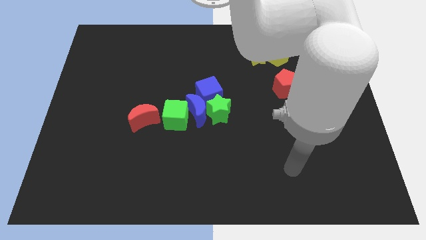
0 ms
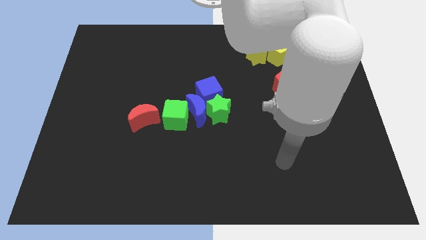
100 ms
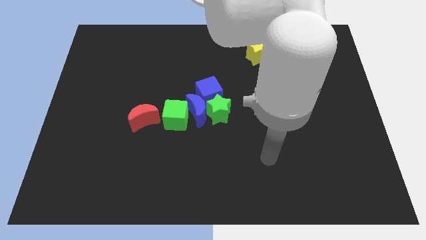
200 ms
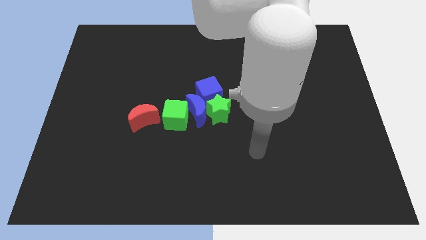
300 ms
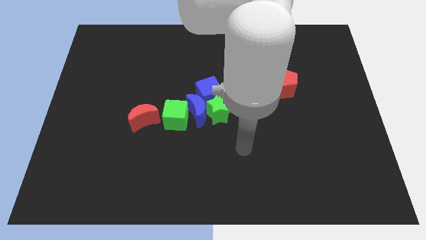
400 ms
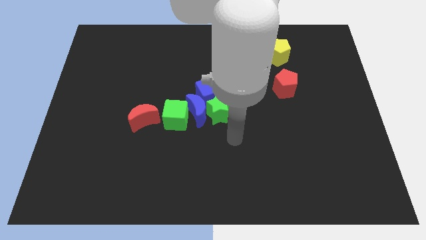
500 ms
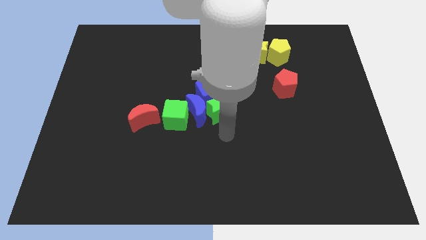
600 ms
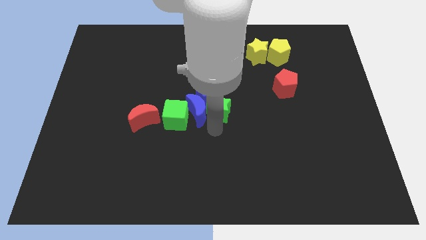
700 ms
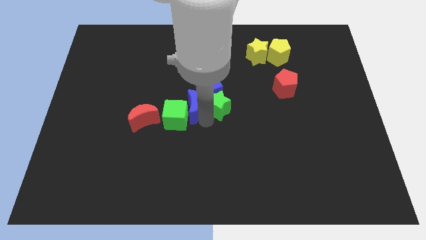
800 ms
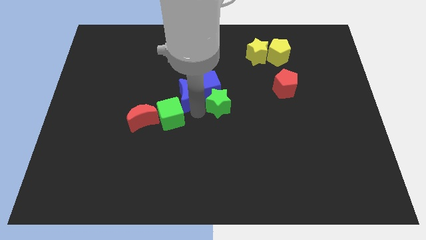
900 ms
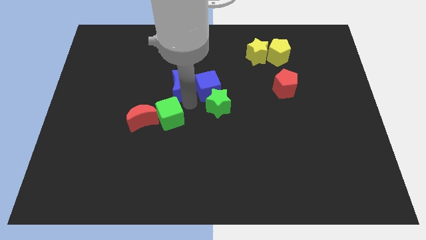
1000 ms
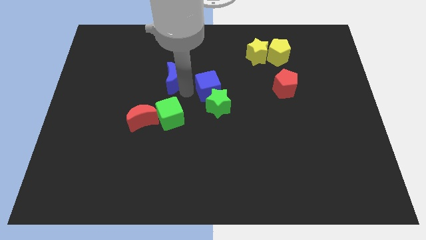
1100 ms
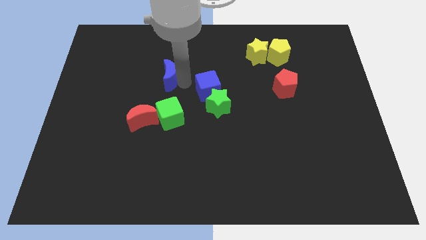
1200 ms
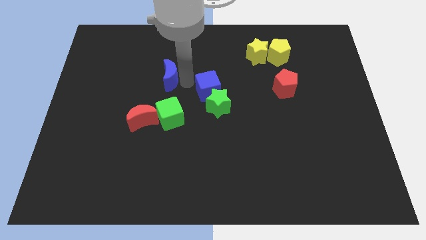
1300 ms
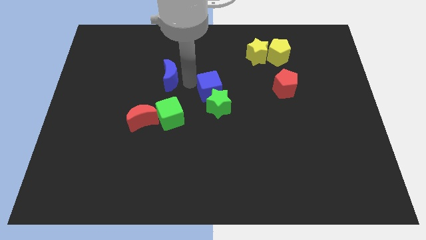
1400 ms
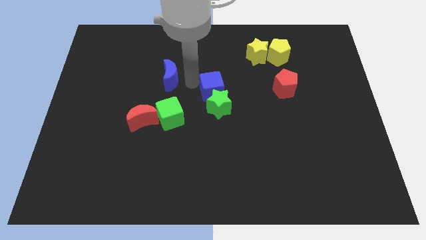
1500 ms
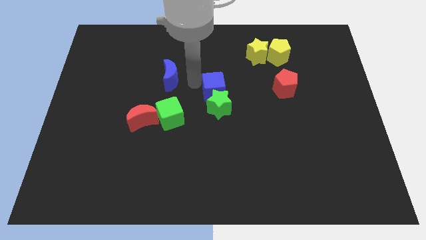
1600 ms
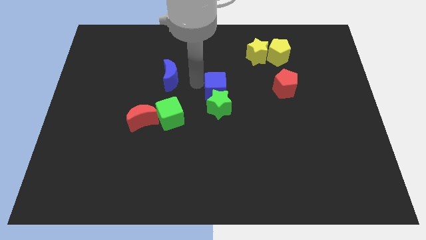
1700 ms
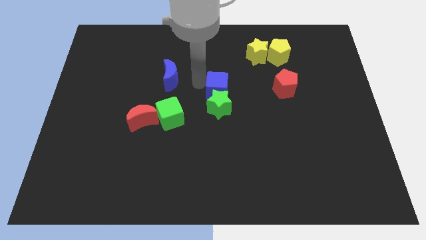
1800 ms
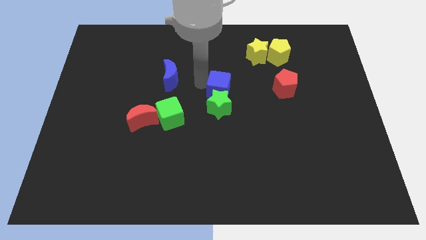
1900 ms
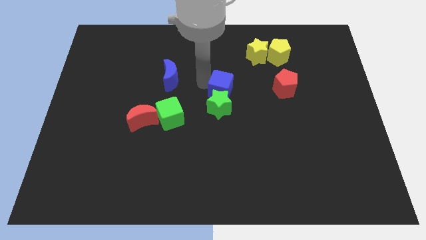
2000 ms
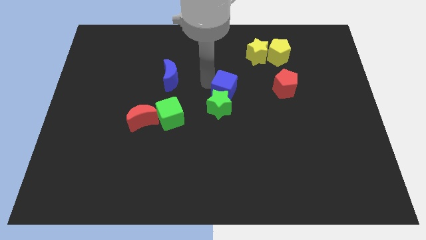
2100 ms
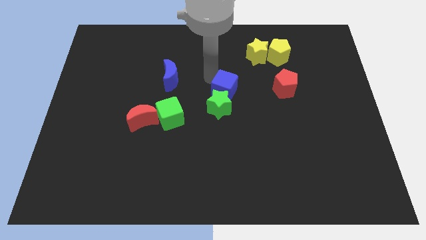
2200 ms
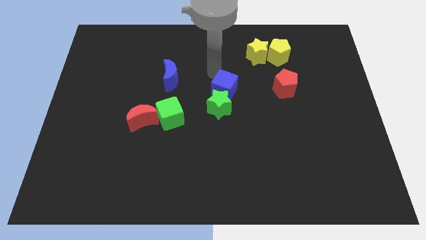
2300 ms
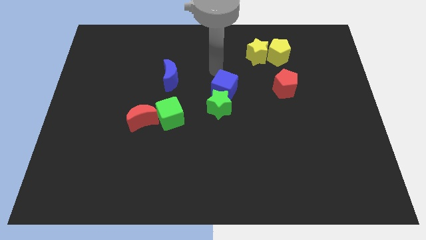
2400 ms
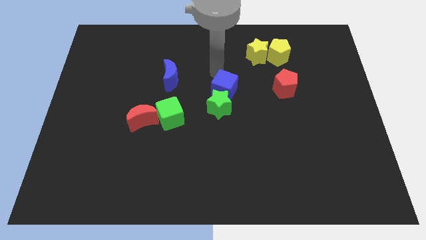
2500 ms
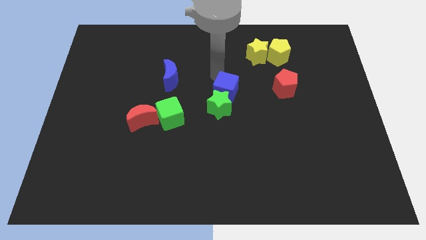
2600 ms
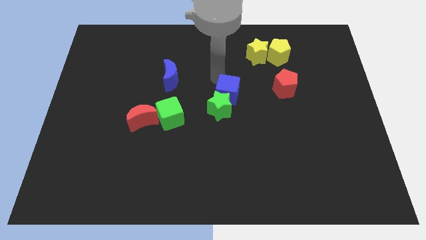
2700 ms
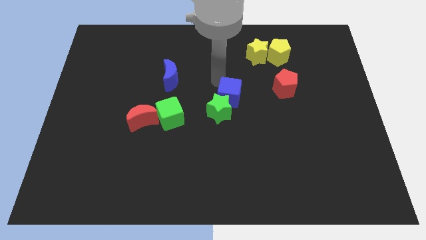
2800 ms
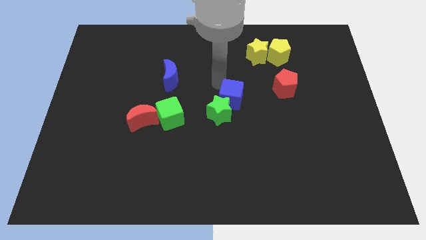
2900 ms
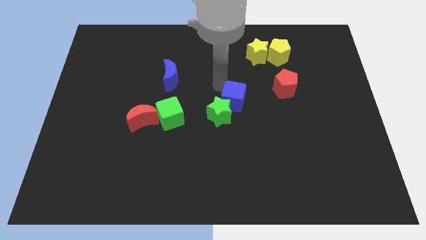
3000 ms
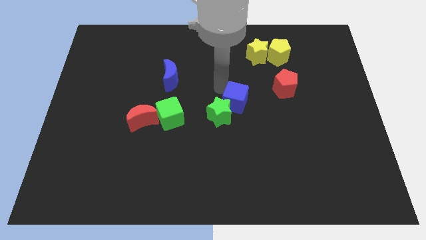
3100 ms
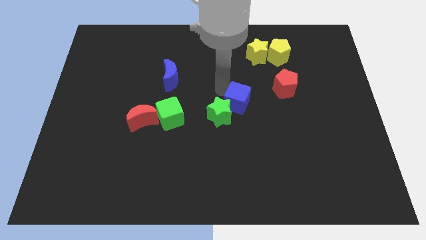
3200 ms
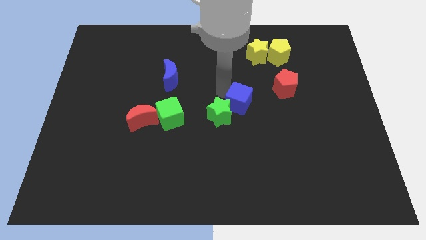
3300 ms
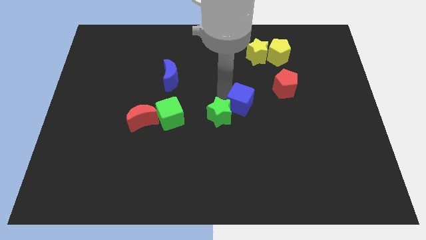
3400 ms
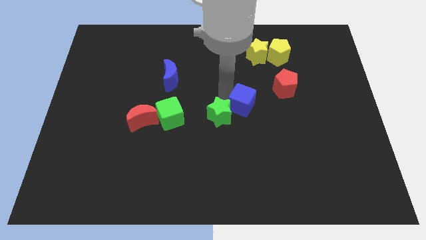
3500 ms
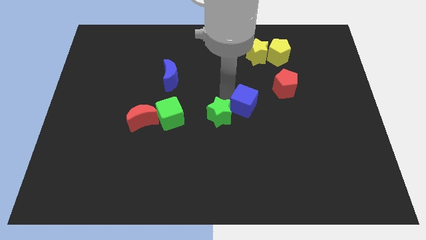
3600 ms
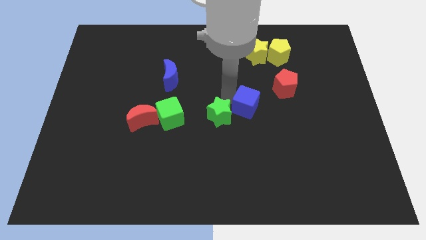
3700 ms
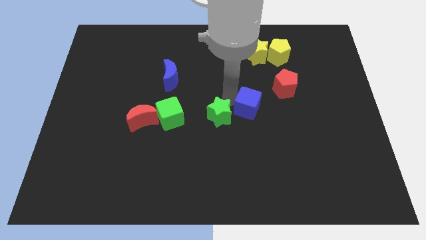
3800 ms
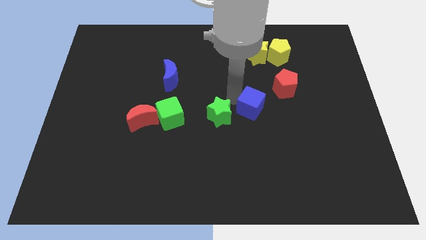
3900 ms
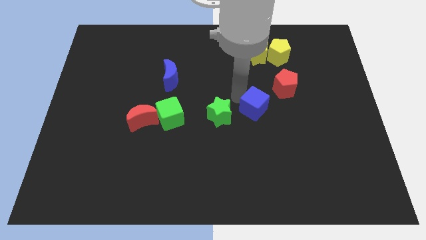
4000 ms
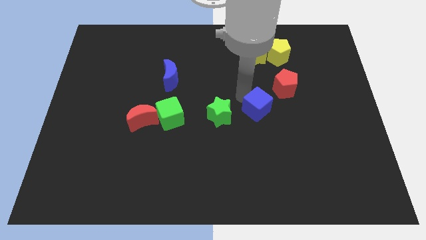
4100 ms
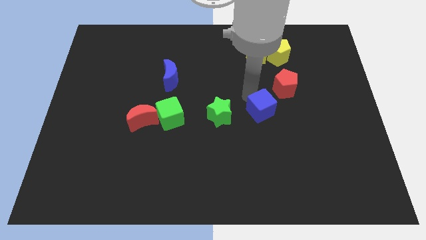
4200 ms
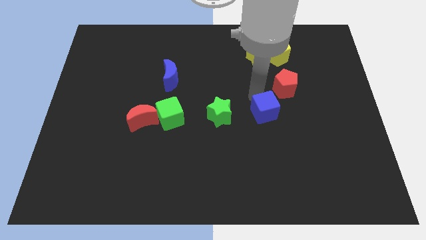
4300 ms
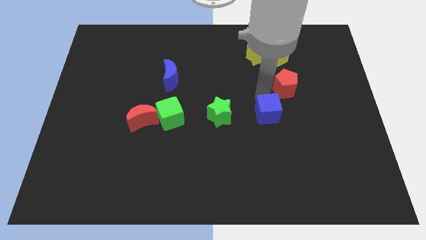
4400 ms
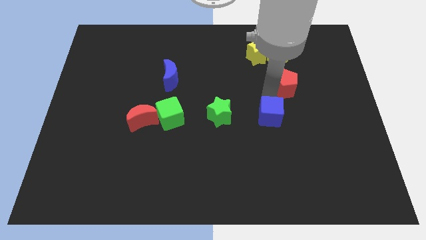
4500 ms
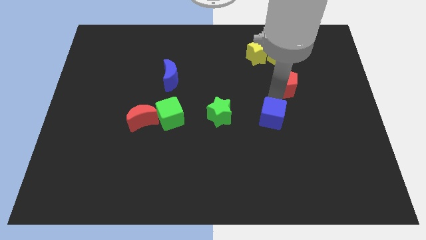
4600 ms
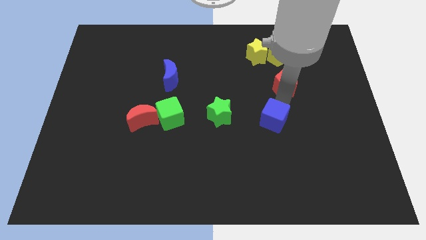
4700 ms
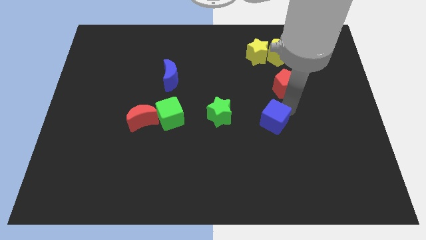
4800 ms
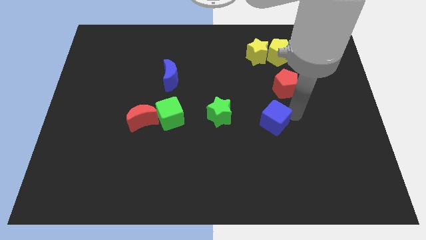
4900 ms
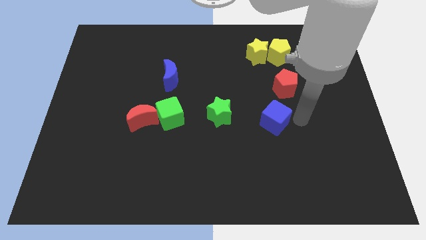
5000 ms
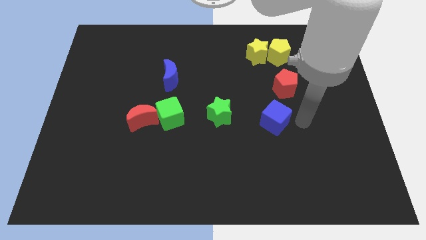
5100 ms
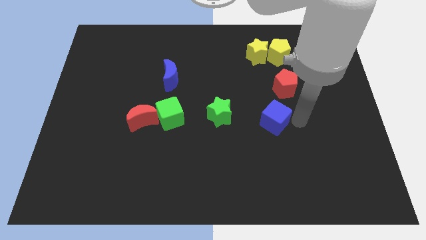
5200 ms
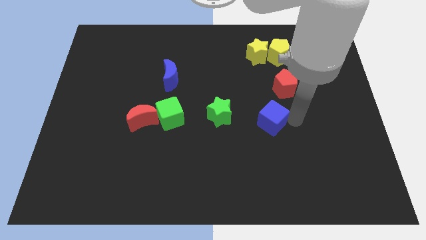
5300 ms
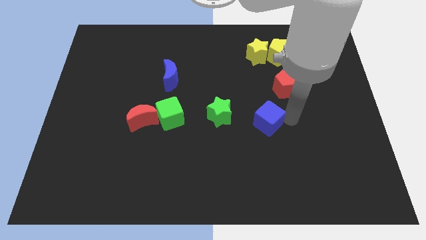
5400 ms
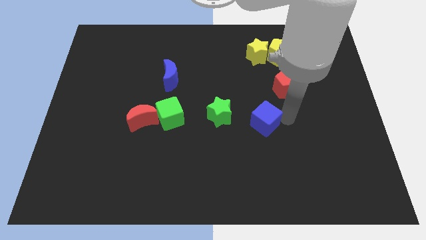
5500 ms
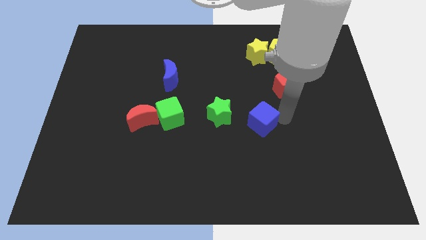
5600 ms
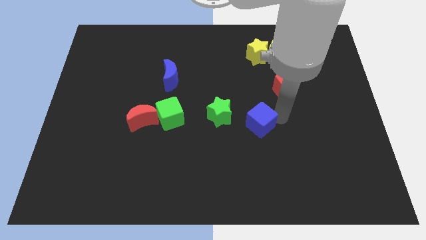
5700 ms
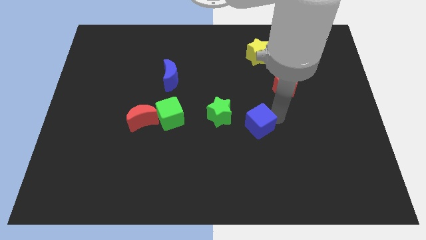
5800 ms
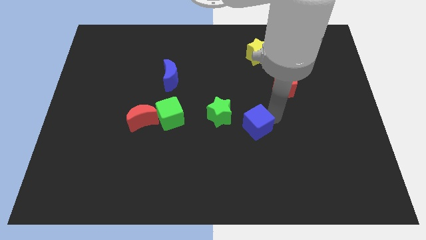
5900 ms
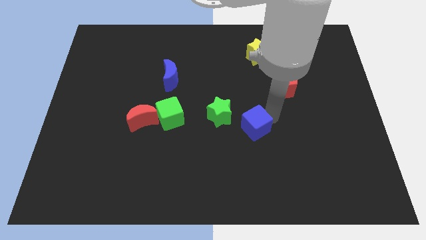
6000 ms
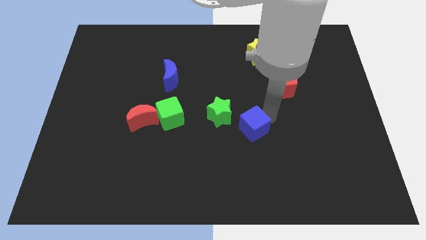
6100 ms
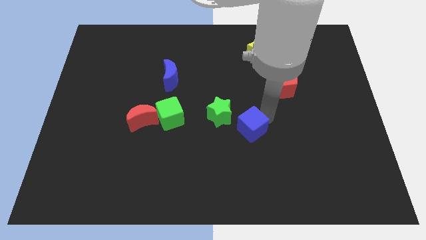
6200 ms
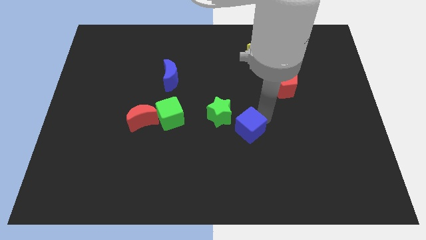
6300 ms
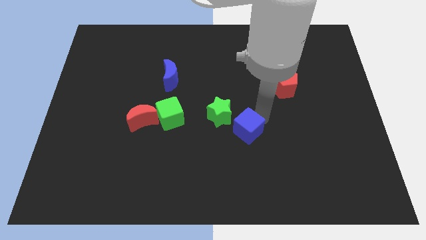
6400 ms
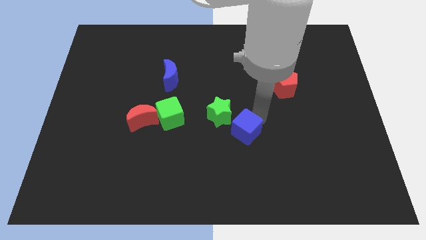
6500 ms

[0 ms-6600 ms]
slide the blue cube downwards somewhat

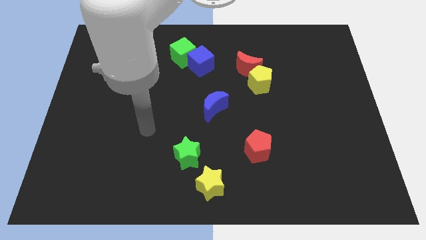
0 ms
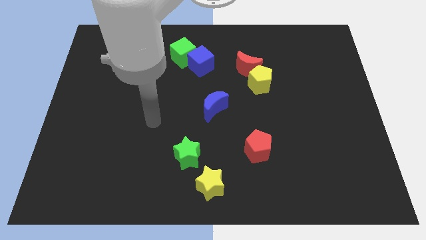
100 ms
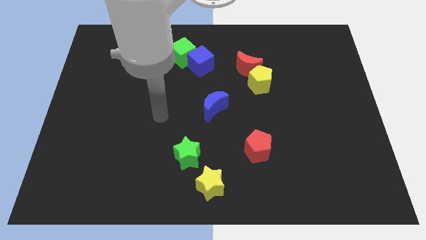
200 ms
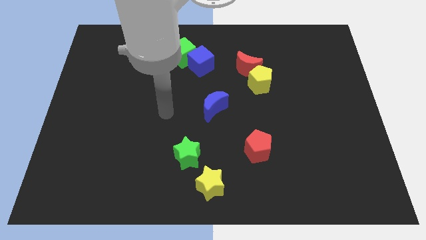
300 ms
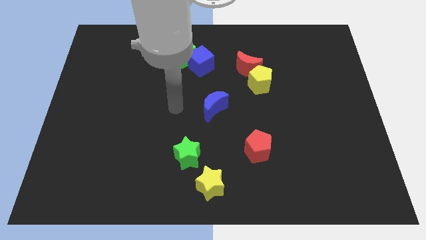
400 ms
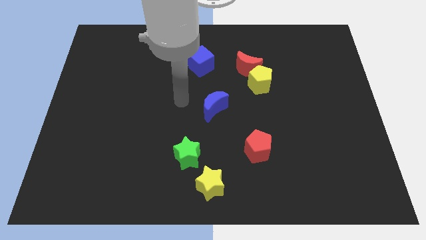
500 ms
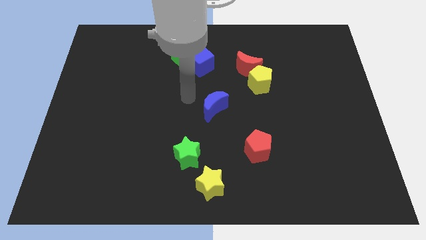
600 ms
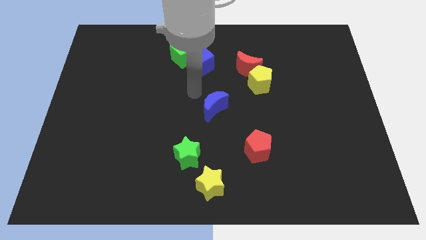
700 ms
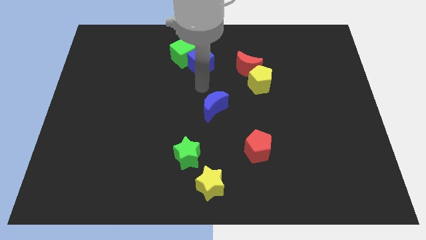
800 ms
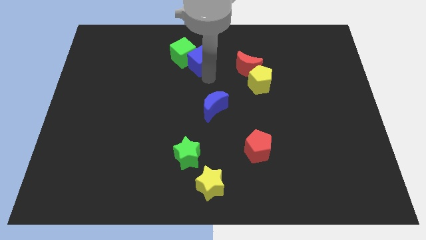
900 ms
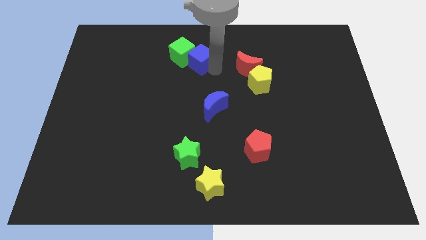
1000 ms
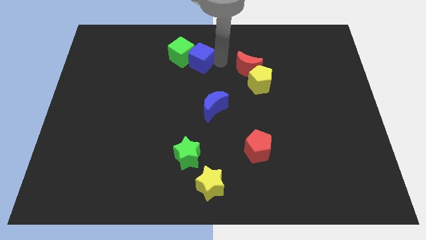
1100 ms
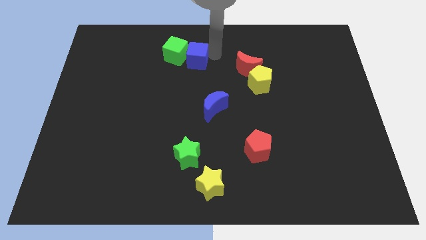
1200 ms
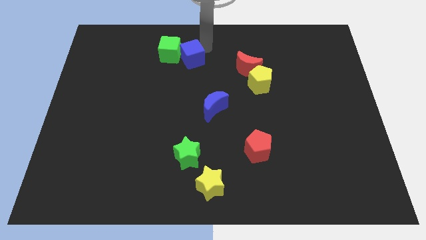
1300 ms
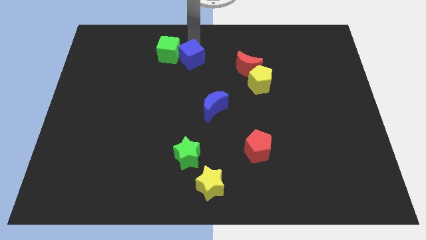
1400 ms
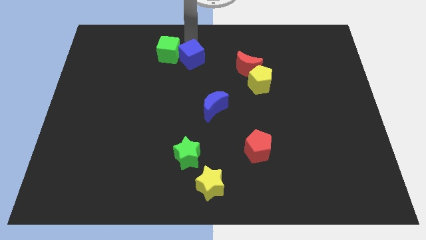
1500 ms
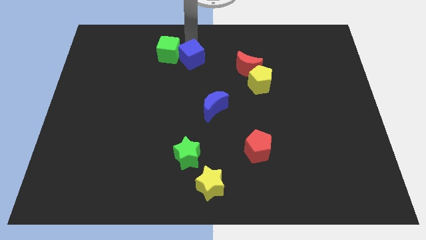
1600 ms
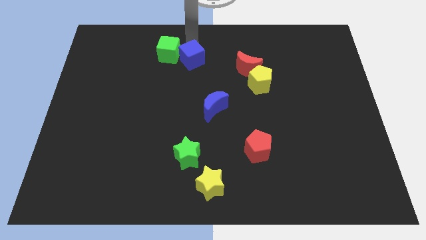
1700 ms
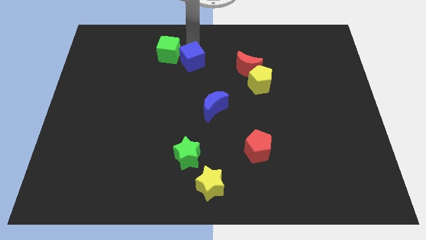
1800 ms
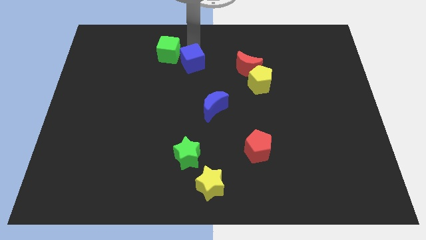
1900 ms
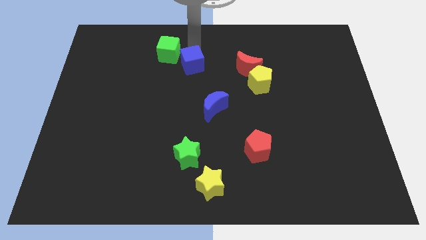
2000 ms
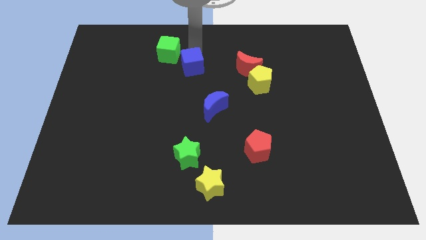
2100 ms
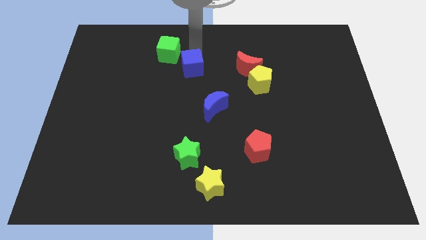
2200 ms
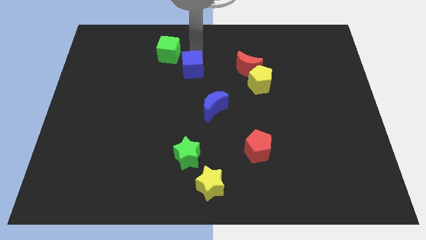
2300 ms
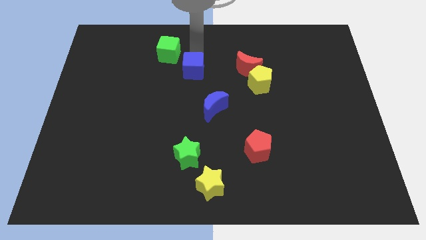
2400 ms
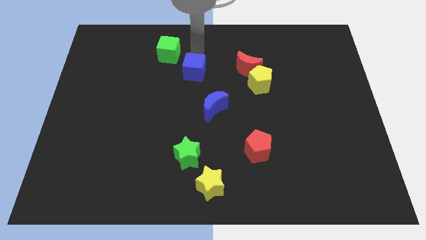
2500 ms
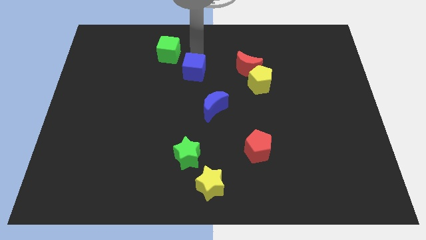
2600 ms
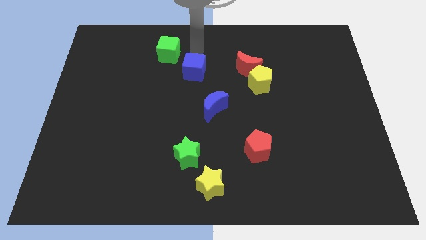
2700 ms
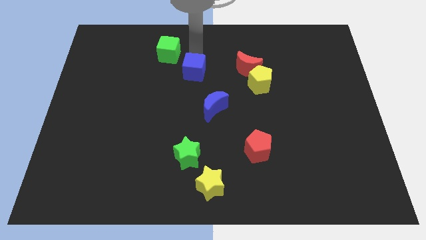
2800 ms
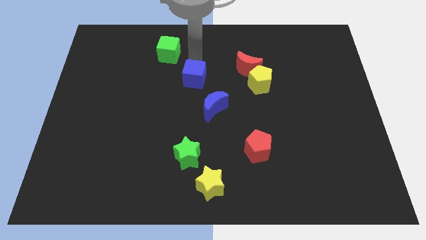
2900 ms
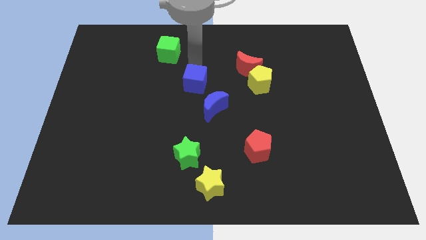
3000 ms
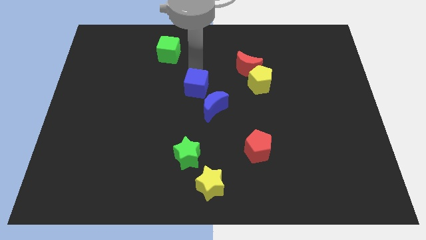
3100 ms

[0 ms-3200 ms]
push the blue cube a bit downwards
